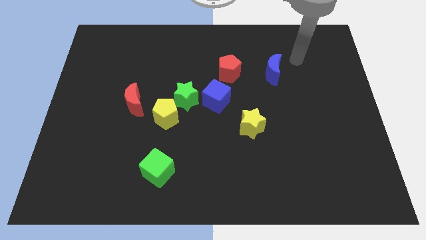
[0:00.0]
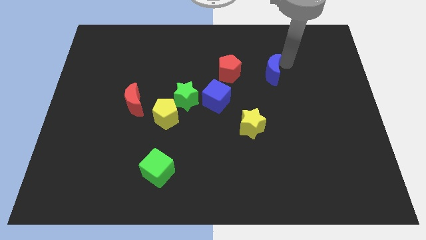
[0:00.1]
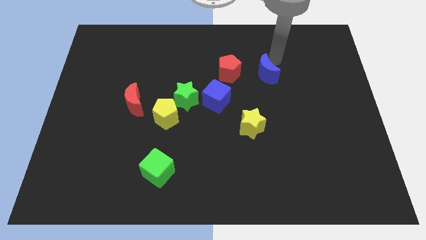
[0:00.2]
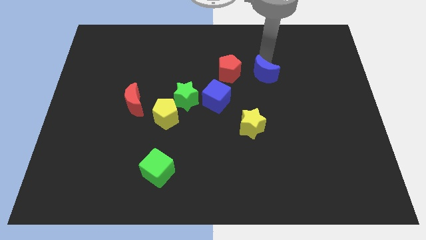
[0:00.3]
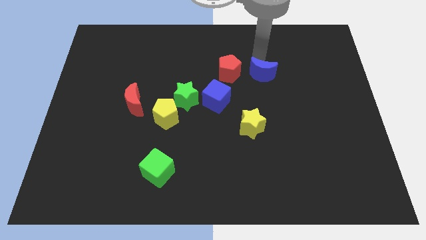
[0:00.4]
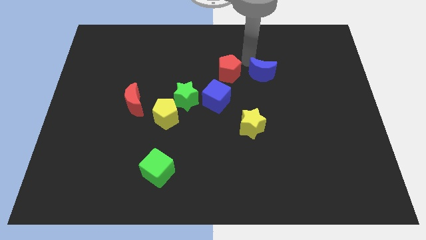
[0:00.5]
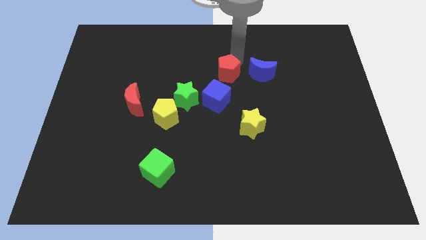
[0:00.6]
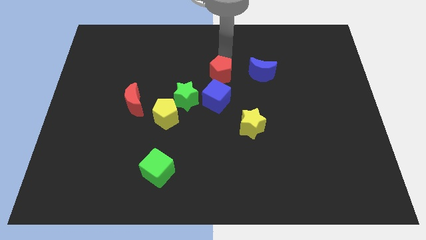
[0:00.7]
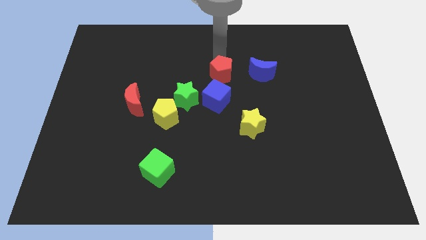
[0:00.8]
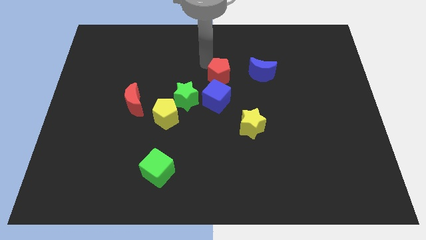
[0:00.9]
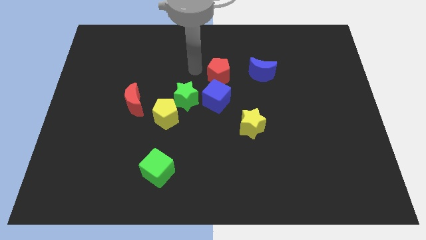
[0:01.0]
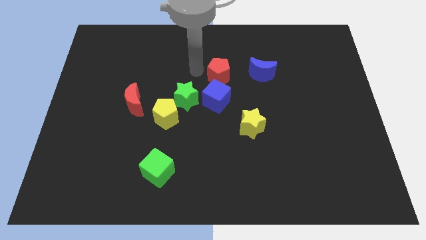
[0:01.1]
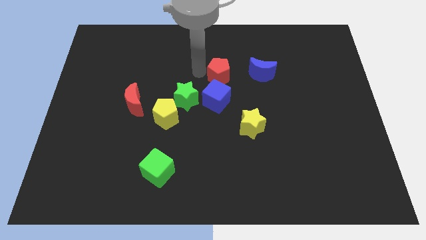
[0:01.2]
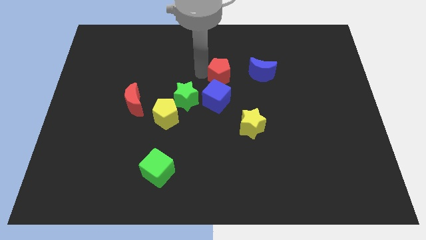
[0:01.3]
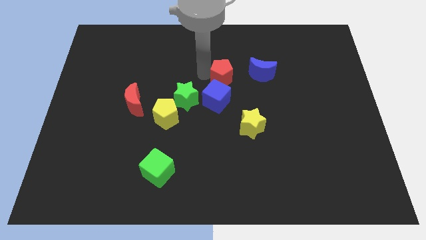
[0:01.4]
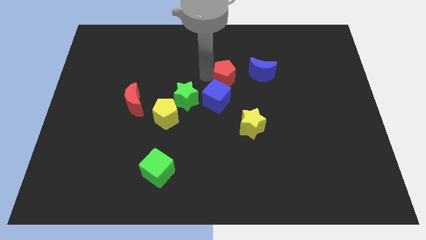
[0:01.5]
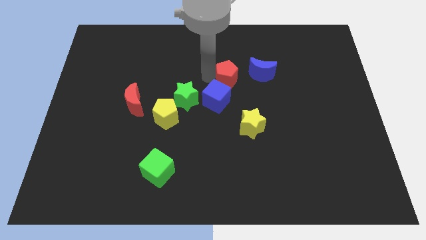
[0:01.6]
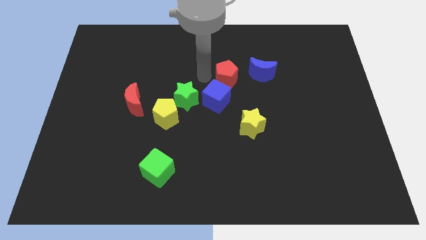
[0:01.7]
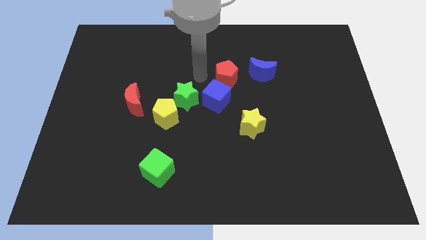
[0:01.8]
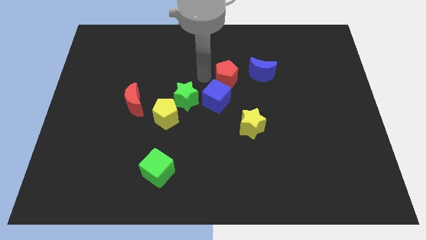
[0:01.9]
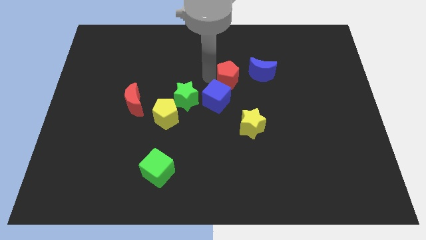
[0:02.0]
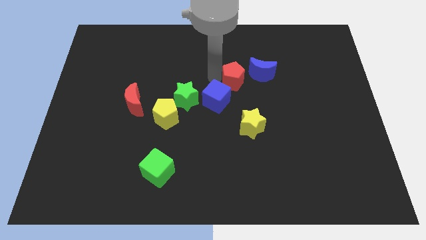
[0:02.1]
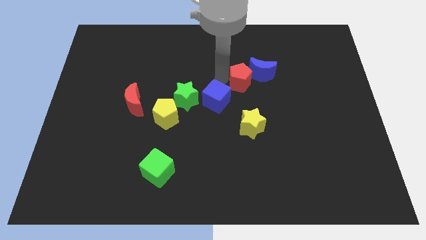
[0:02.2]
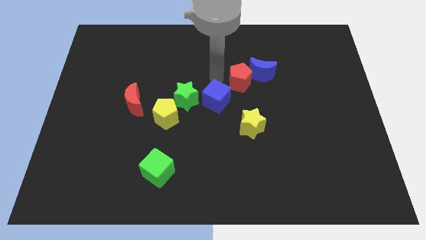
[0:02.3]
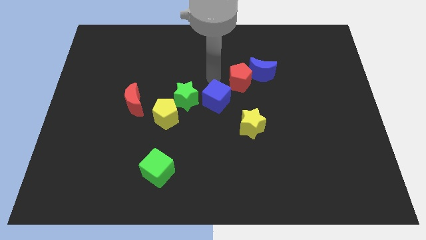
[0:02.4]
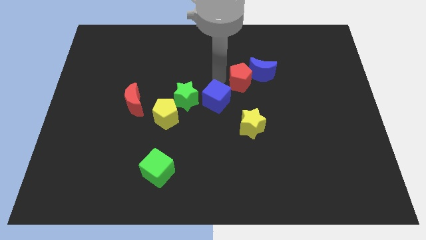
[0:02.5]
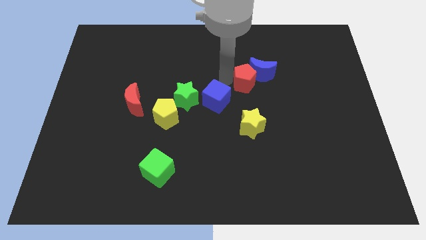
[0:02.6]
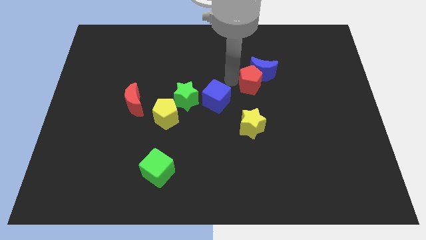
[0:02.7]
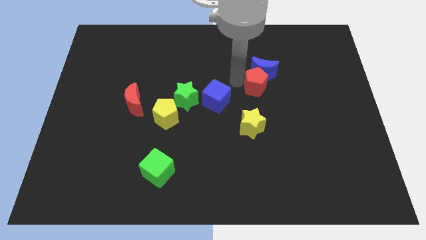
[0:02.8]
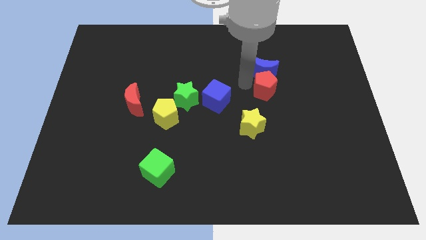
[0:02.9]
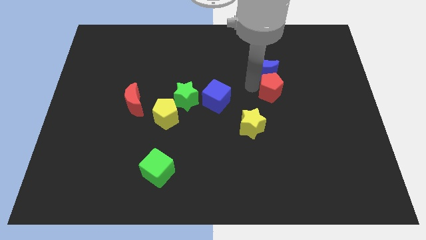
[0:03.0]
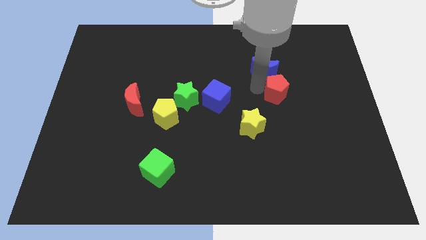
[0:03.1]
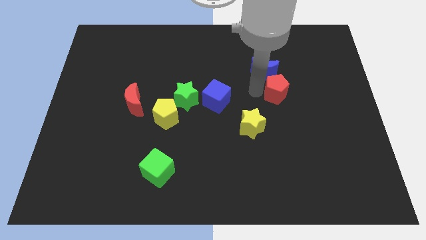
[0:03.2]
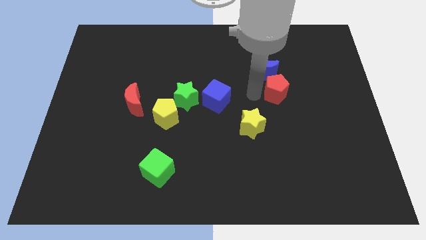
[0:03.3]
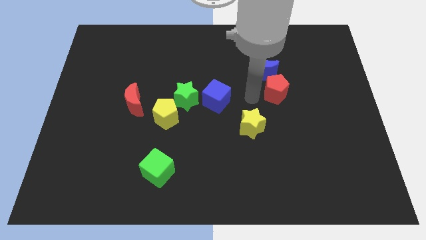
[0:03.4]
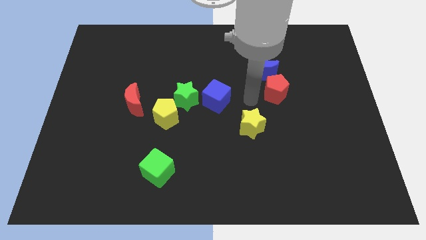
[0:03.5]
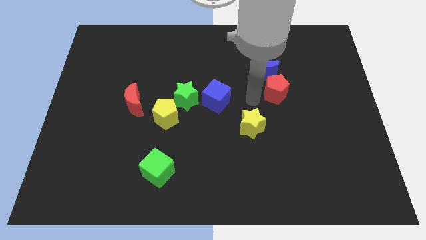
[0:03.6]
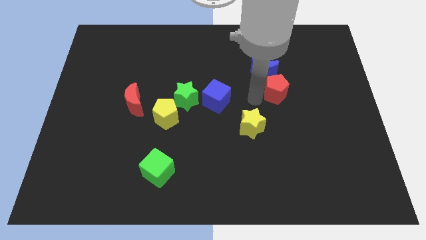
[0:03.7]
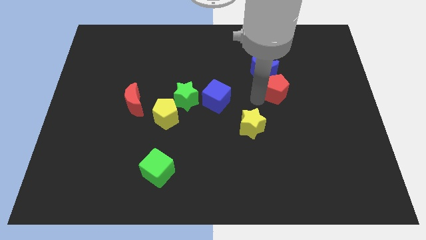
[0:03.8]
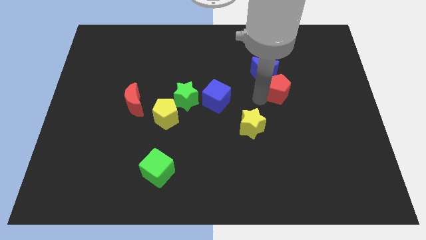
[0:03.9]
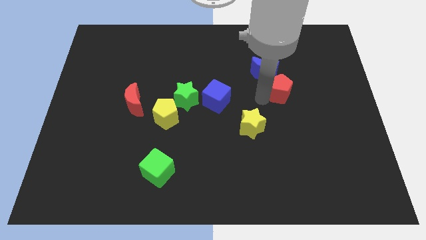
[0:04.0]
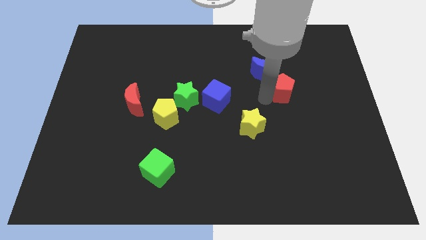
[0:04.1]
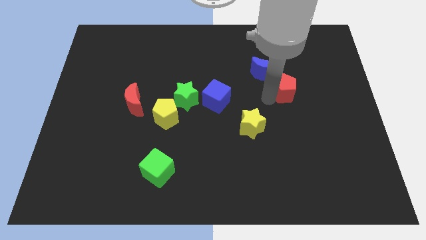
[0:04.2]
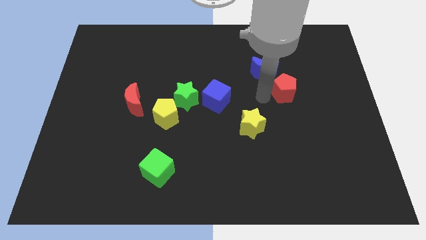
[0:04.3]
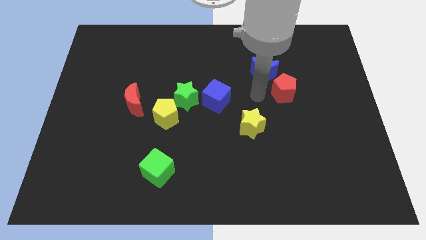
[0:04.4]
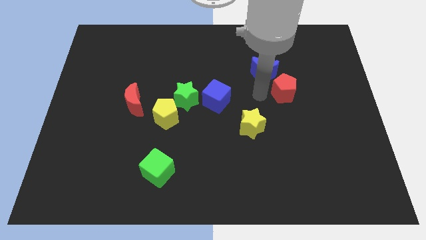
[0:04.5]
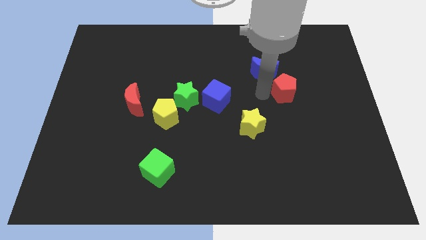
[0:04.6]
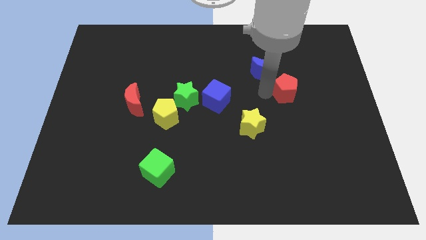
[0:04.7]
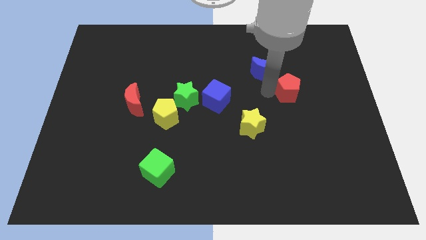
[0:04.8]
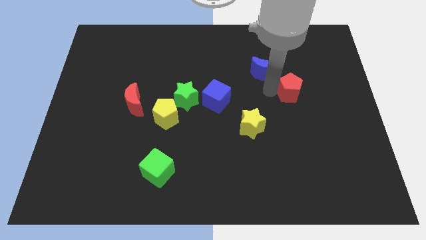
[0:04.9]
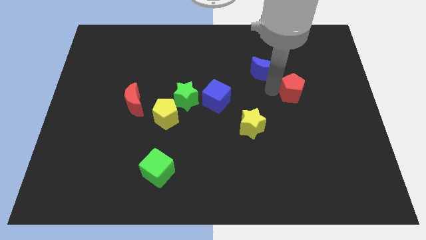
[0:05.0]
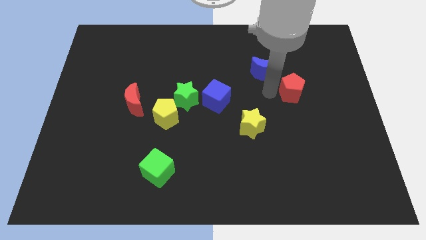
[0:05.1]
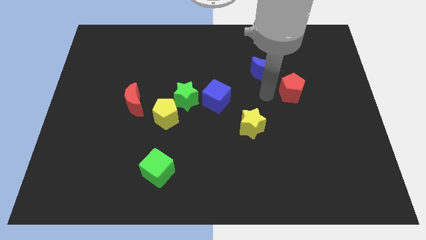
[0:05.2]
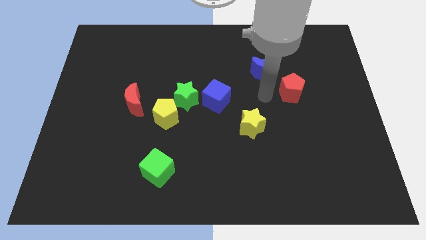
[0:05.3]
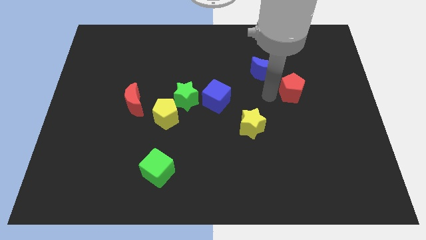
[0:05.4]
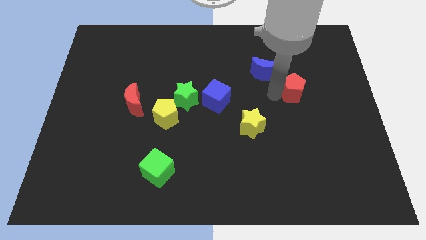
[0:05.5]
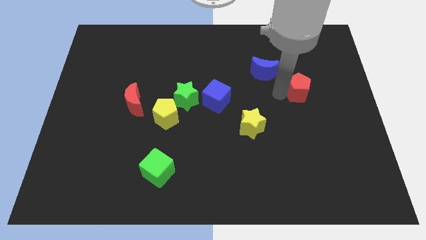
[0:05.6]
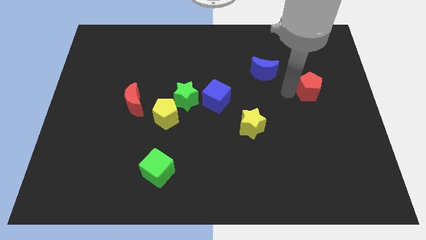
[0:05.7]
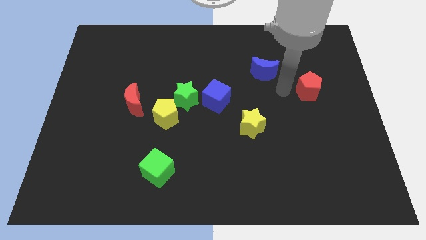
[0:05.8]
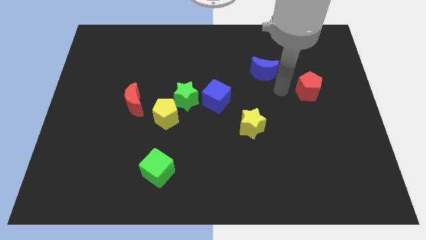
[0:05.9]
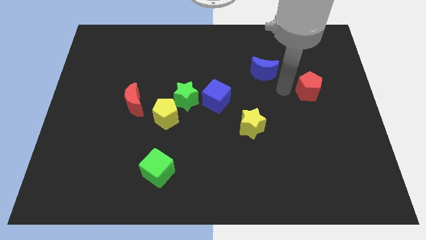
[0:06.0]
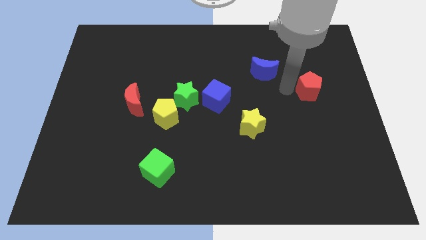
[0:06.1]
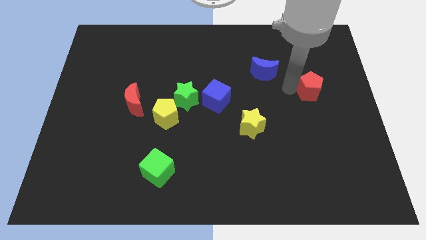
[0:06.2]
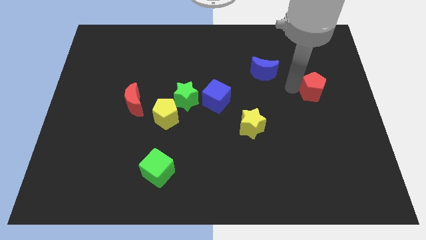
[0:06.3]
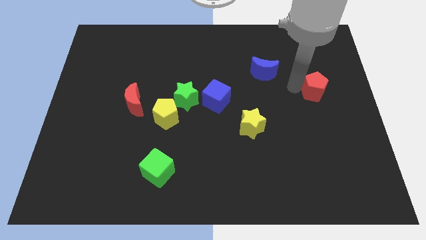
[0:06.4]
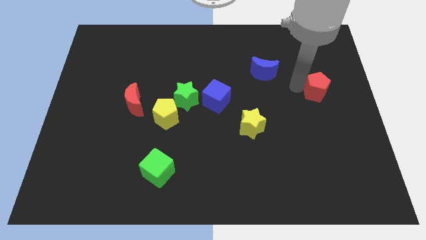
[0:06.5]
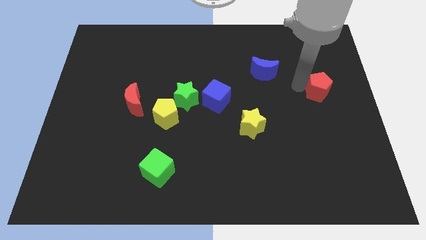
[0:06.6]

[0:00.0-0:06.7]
slide the red pentagon to the right side
